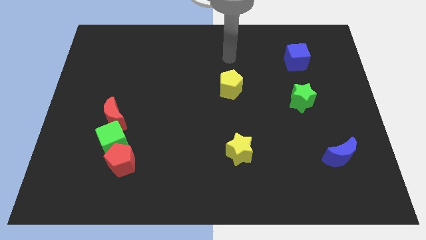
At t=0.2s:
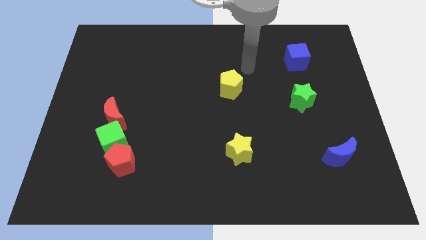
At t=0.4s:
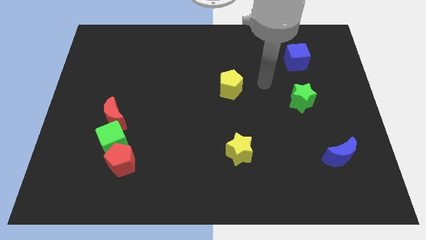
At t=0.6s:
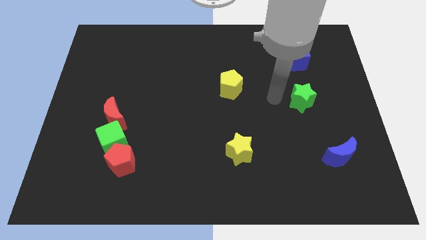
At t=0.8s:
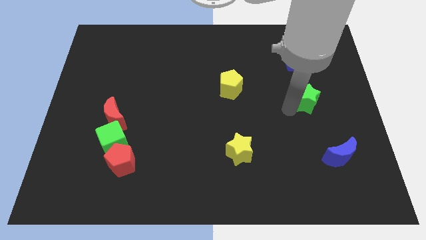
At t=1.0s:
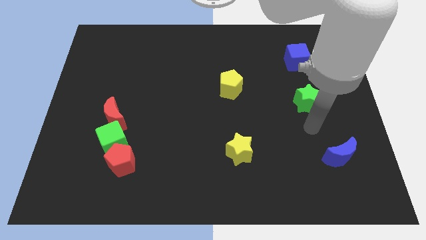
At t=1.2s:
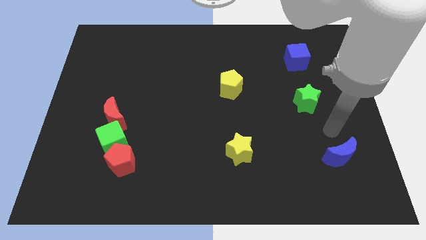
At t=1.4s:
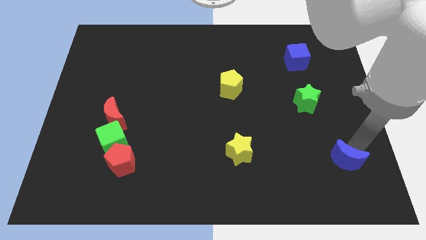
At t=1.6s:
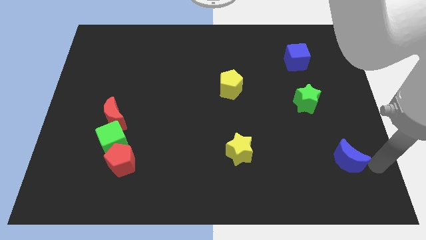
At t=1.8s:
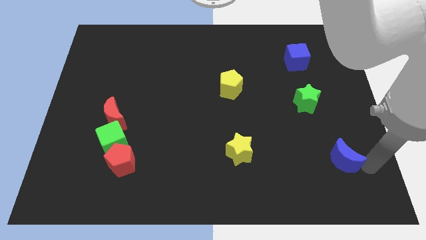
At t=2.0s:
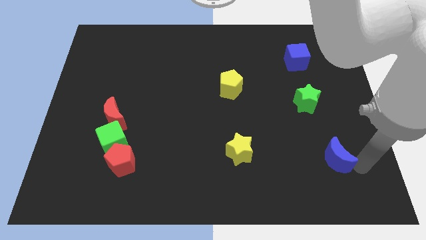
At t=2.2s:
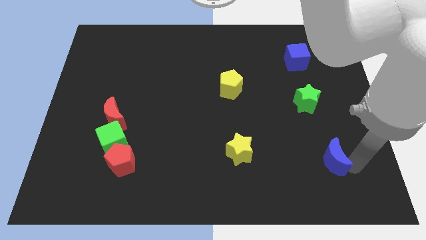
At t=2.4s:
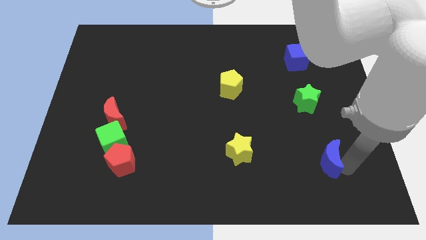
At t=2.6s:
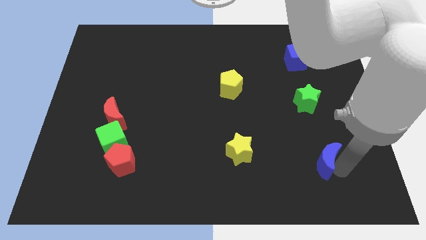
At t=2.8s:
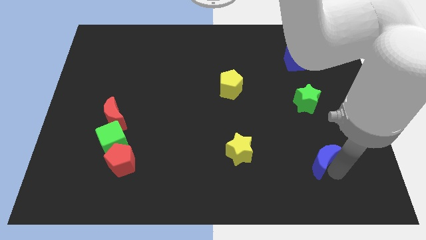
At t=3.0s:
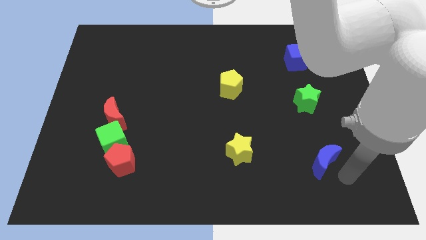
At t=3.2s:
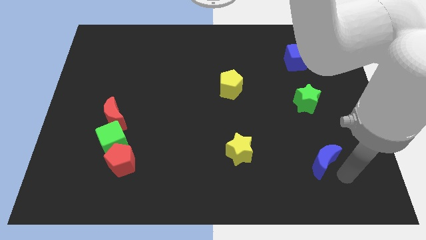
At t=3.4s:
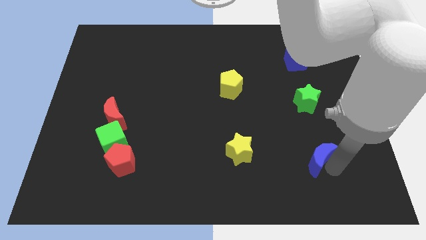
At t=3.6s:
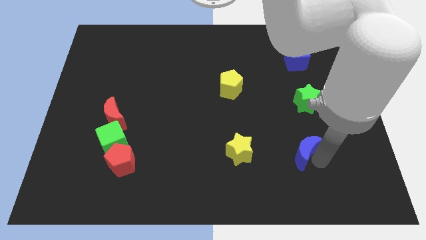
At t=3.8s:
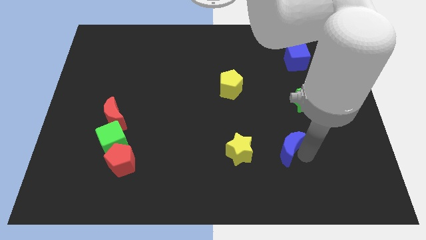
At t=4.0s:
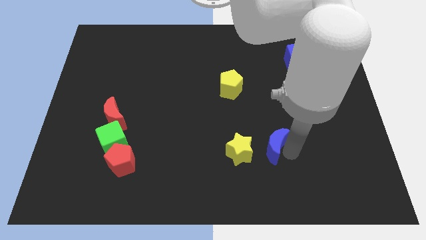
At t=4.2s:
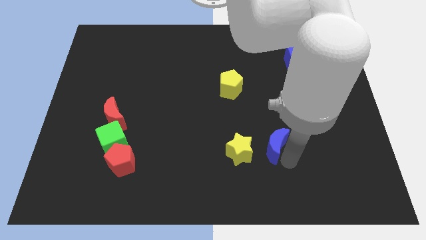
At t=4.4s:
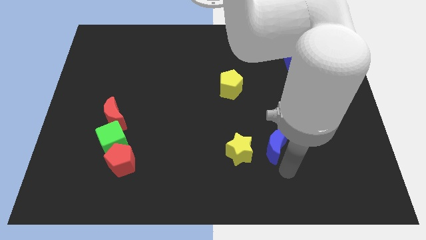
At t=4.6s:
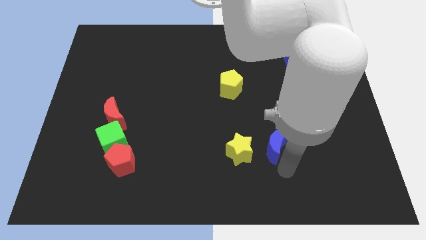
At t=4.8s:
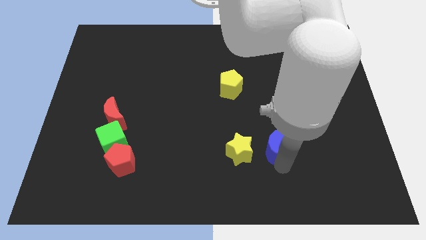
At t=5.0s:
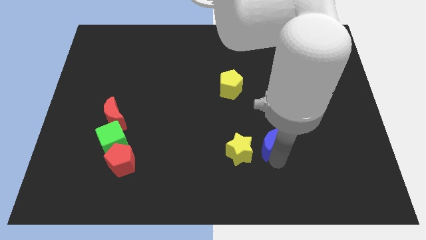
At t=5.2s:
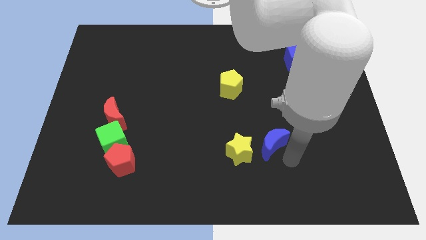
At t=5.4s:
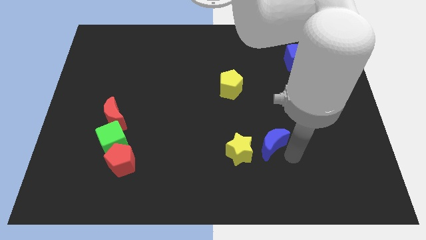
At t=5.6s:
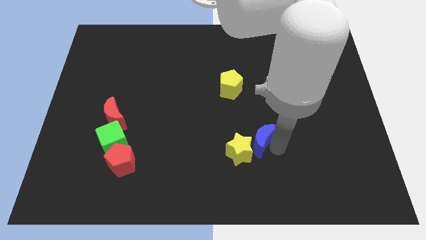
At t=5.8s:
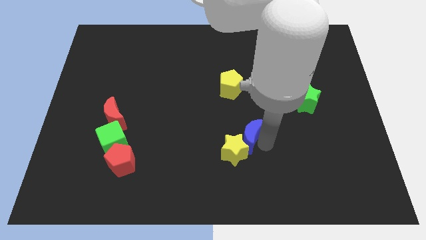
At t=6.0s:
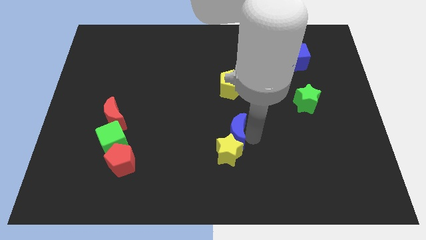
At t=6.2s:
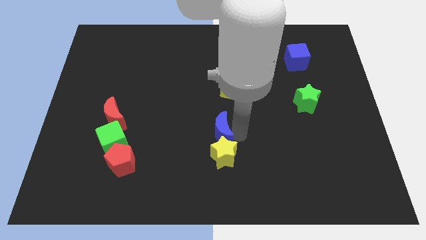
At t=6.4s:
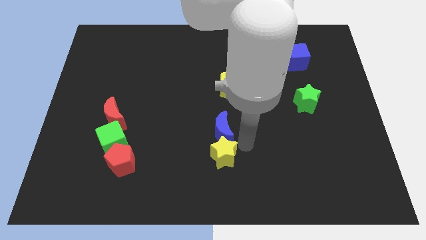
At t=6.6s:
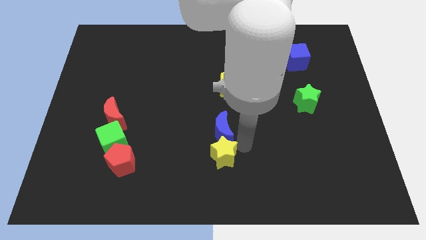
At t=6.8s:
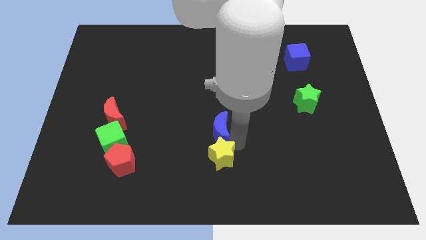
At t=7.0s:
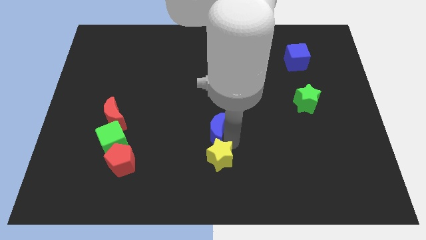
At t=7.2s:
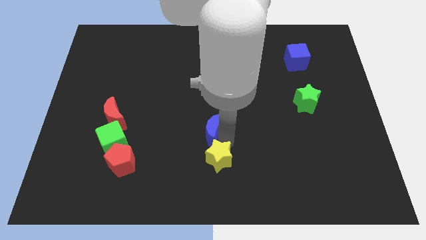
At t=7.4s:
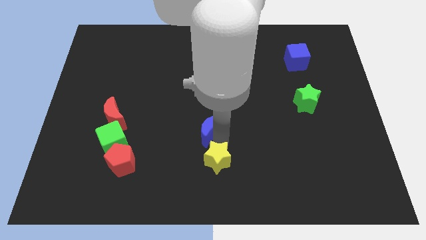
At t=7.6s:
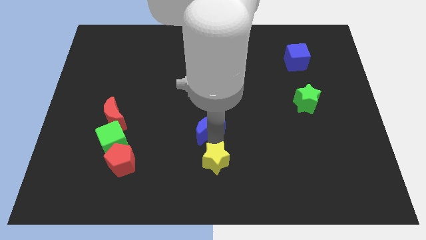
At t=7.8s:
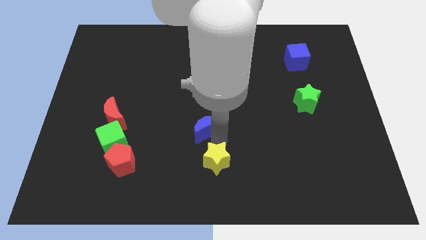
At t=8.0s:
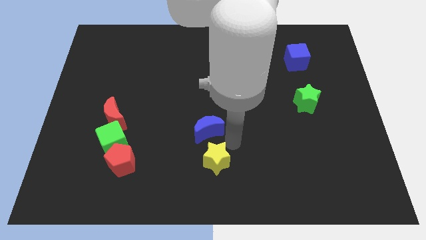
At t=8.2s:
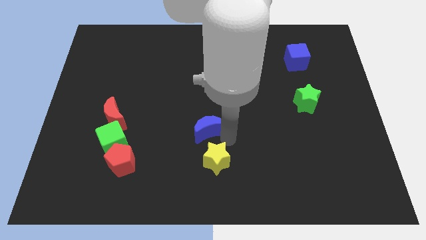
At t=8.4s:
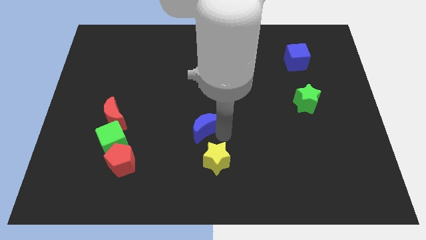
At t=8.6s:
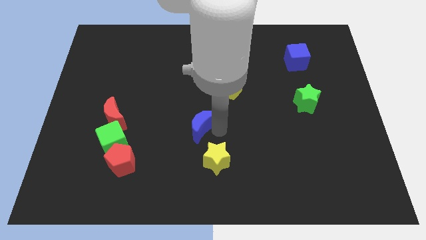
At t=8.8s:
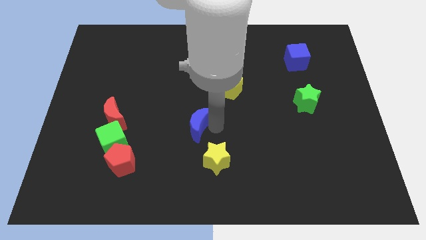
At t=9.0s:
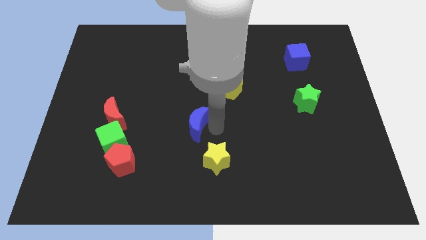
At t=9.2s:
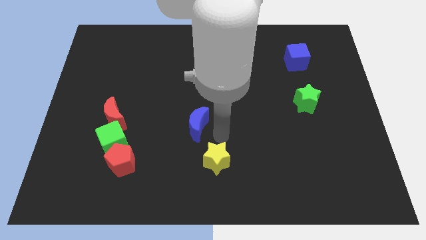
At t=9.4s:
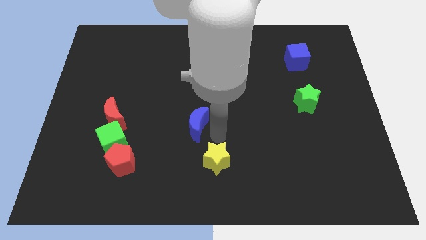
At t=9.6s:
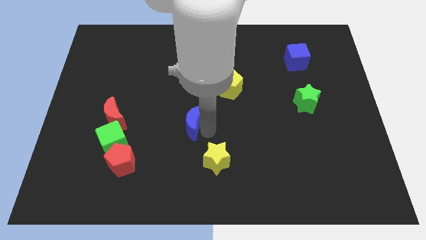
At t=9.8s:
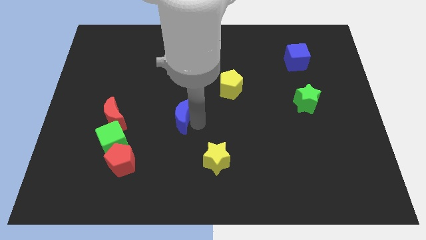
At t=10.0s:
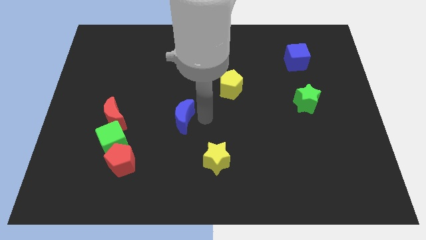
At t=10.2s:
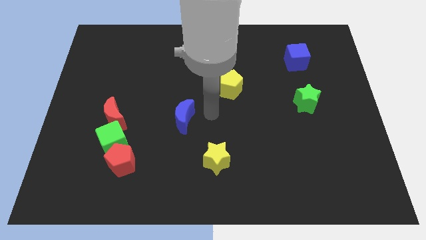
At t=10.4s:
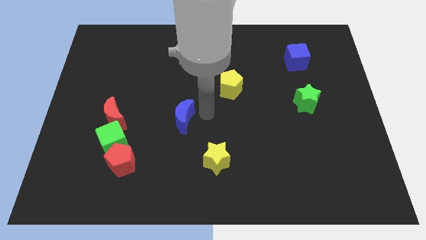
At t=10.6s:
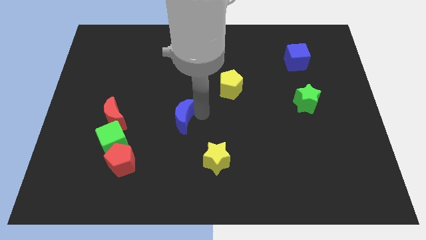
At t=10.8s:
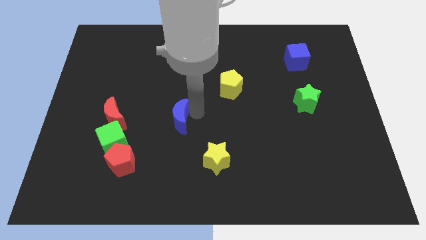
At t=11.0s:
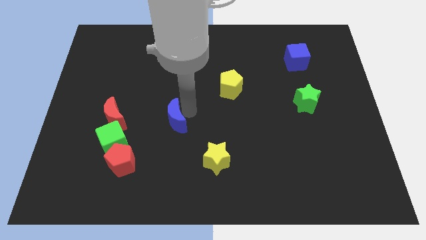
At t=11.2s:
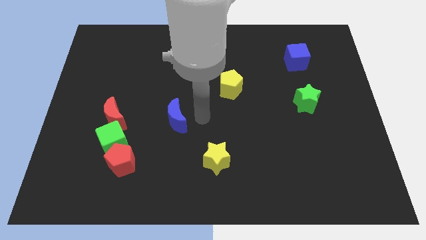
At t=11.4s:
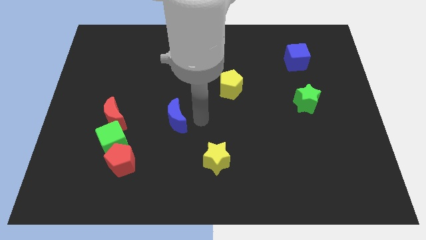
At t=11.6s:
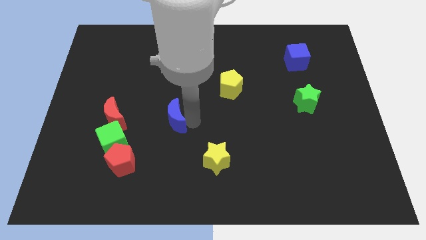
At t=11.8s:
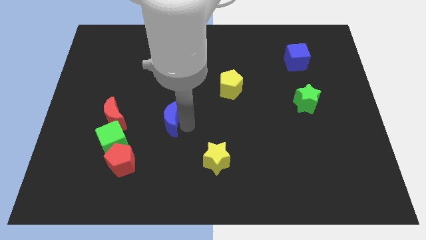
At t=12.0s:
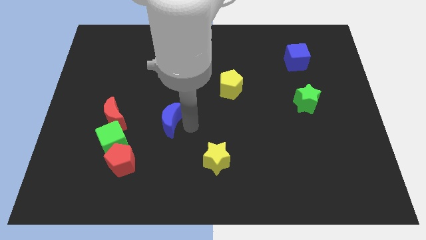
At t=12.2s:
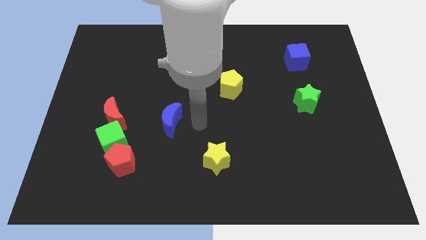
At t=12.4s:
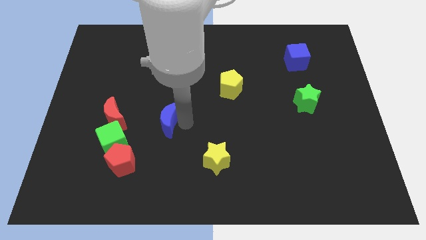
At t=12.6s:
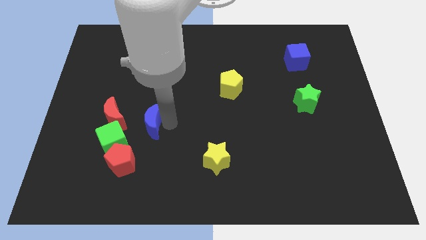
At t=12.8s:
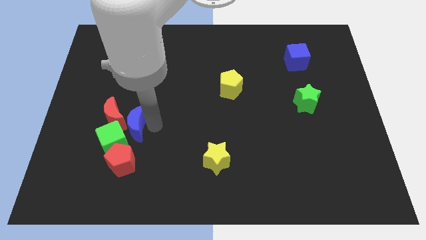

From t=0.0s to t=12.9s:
push the blue moon next to the red moon

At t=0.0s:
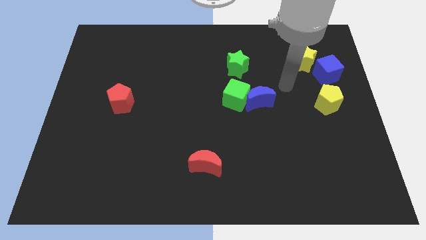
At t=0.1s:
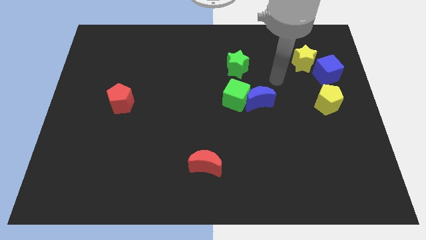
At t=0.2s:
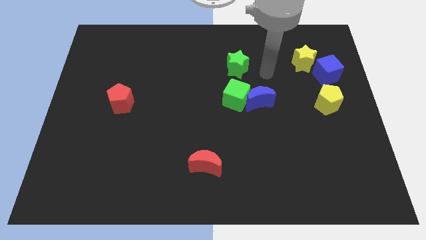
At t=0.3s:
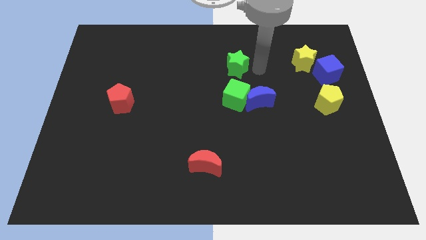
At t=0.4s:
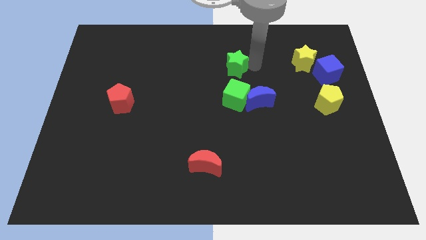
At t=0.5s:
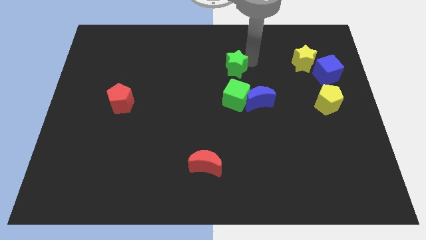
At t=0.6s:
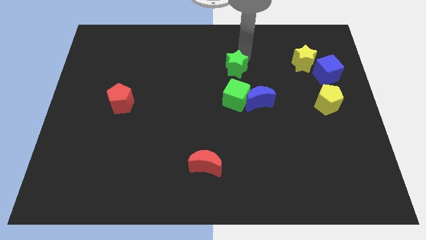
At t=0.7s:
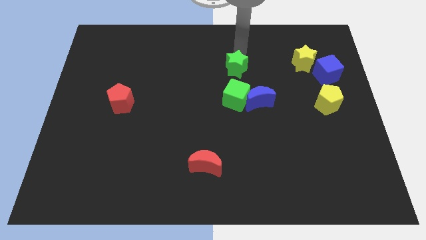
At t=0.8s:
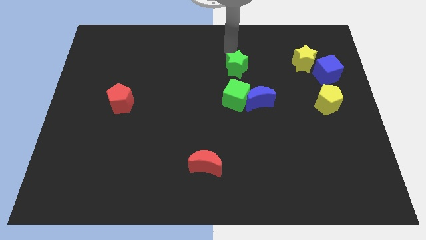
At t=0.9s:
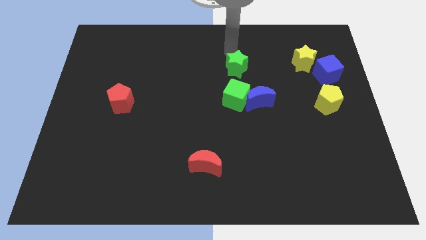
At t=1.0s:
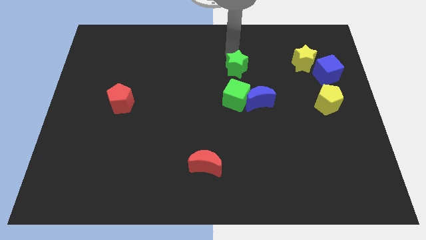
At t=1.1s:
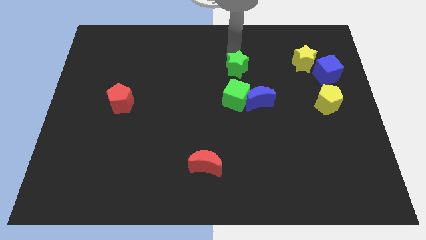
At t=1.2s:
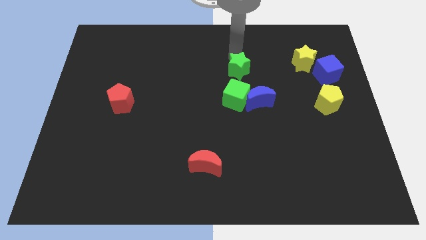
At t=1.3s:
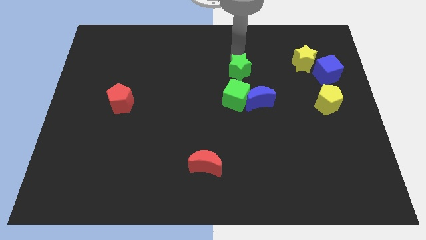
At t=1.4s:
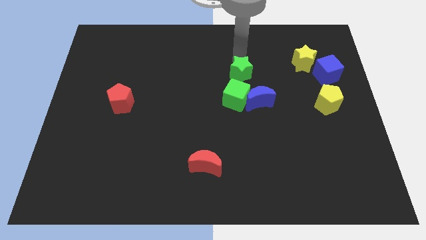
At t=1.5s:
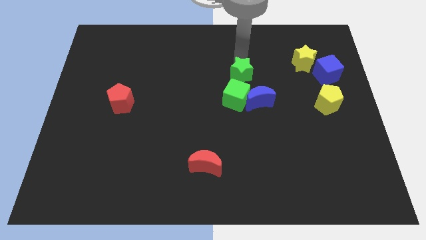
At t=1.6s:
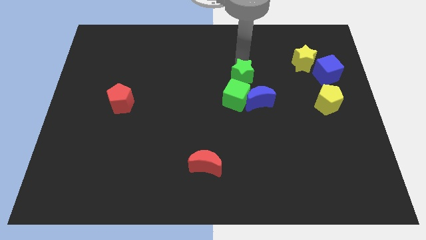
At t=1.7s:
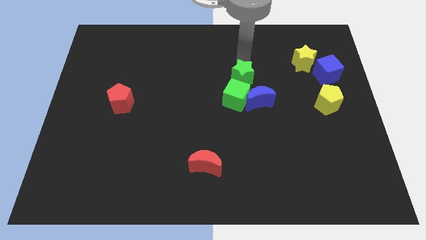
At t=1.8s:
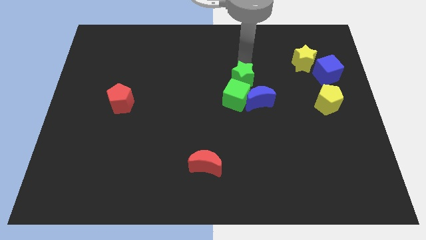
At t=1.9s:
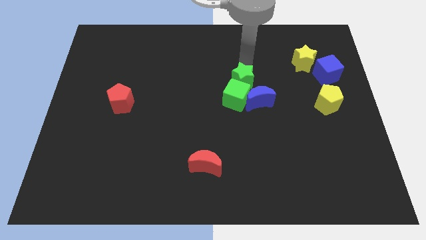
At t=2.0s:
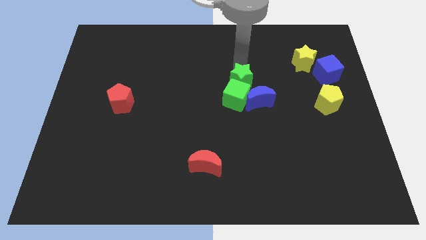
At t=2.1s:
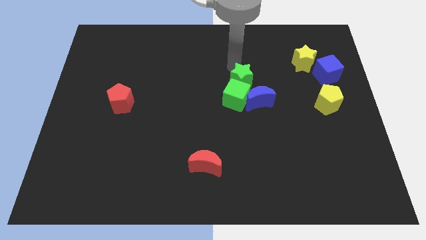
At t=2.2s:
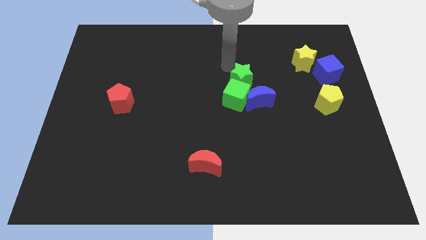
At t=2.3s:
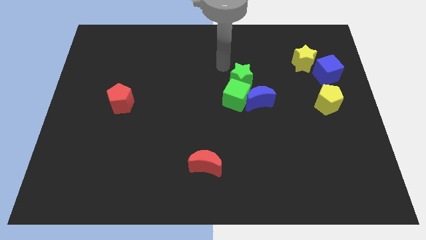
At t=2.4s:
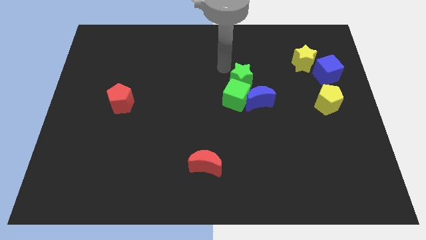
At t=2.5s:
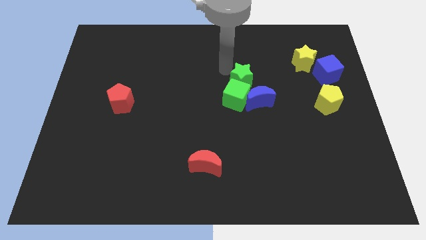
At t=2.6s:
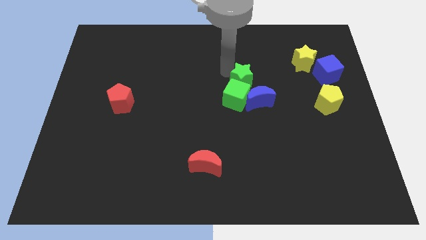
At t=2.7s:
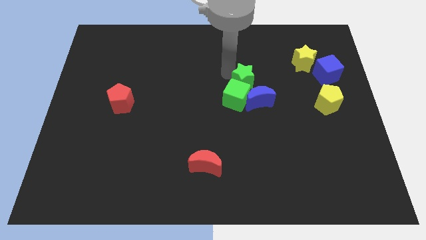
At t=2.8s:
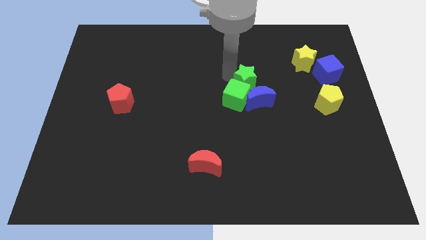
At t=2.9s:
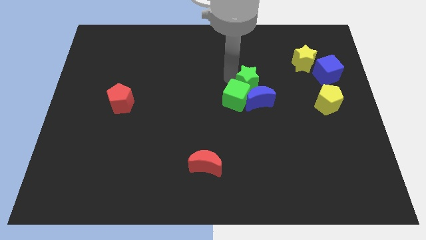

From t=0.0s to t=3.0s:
move the green star towards the blue moon
